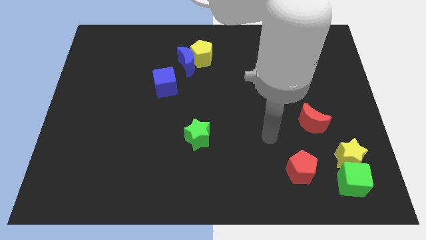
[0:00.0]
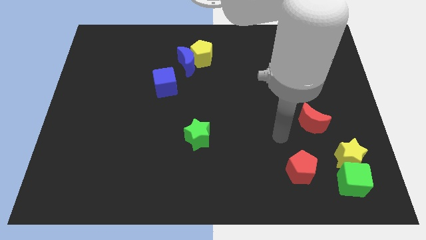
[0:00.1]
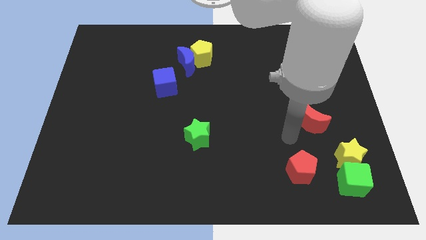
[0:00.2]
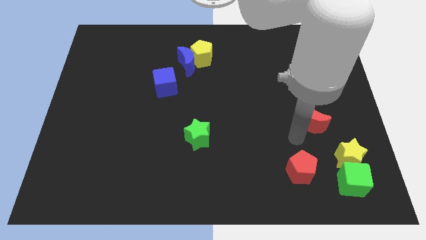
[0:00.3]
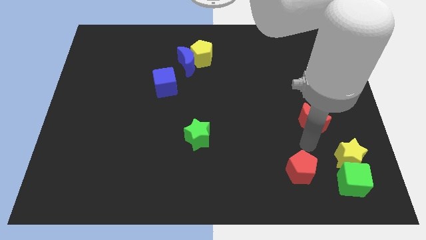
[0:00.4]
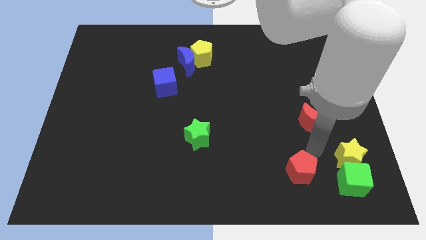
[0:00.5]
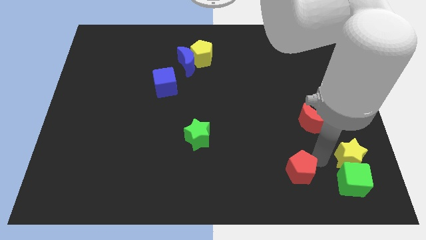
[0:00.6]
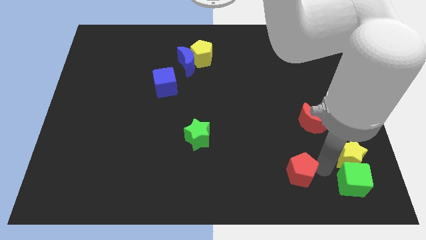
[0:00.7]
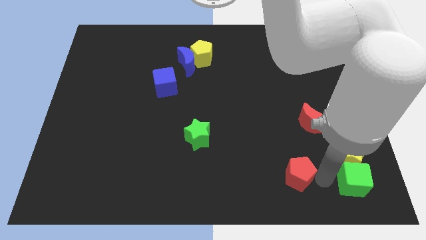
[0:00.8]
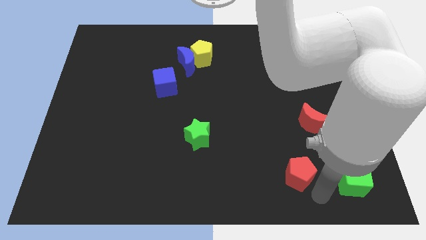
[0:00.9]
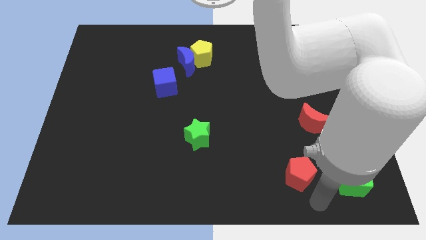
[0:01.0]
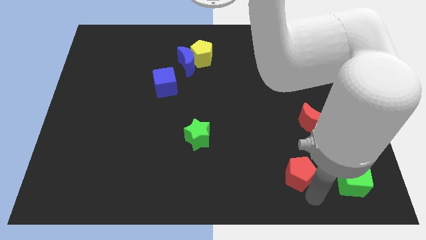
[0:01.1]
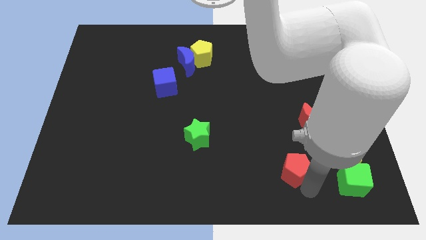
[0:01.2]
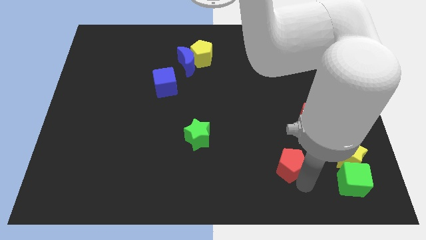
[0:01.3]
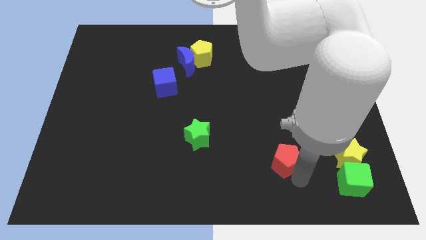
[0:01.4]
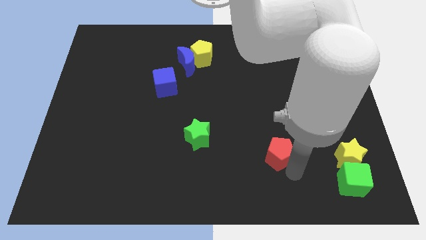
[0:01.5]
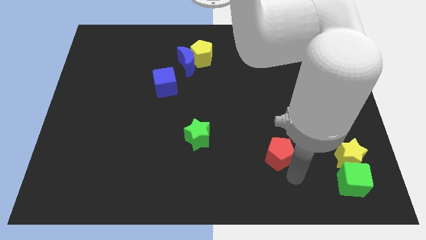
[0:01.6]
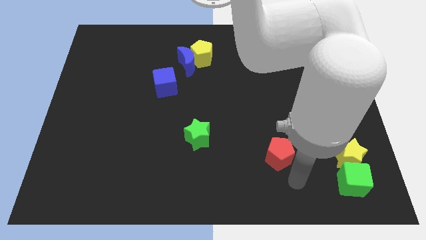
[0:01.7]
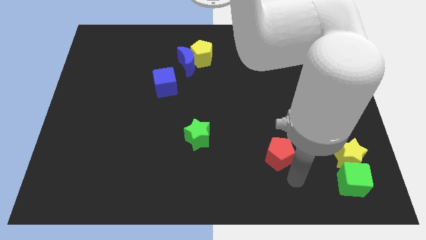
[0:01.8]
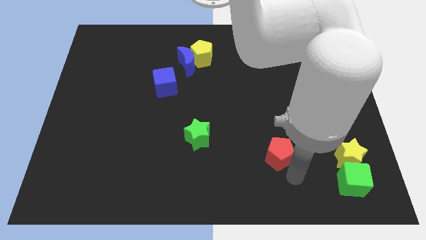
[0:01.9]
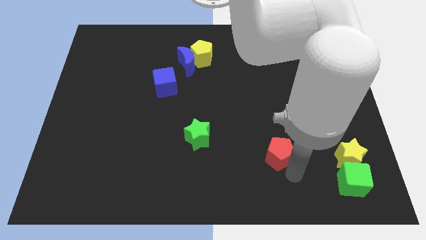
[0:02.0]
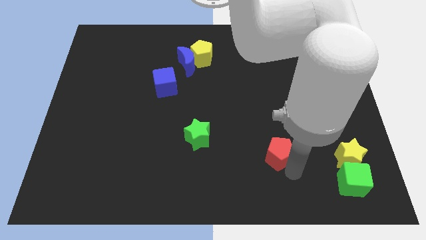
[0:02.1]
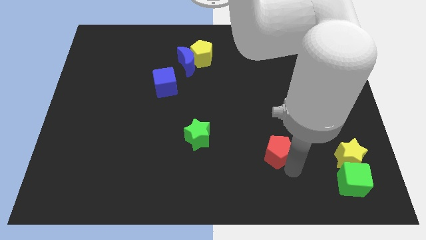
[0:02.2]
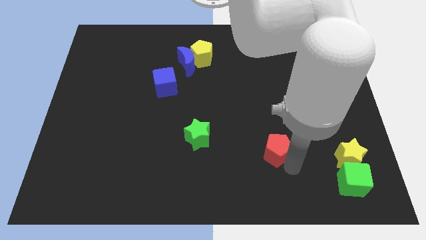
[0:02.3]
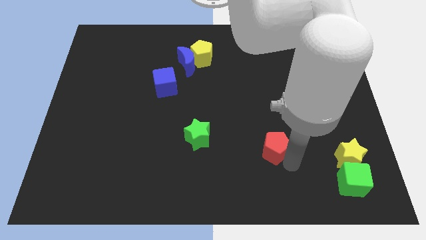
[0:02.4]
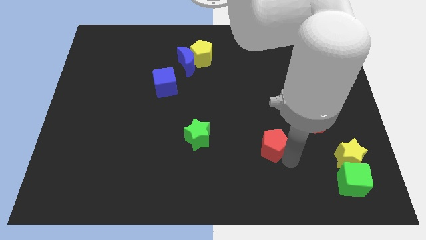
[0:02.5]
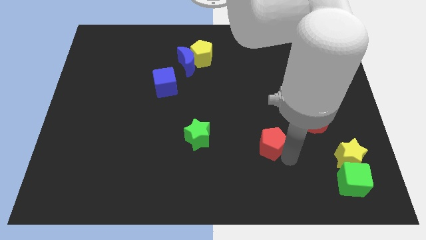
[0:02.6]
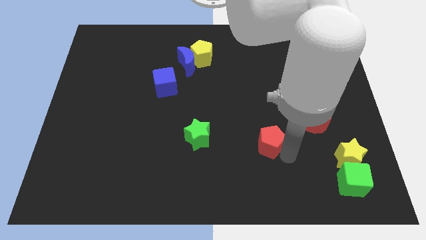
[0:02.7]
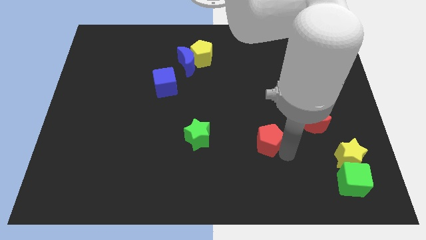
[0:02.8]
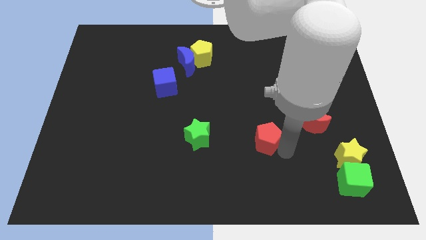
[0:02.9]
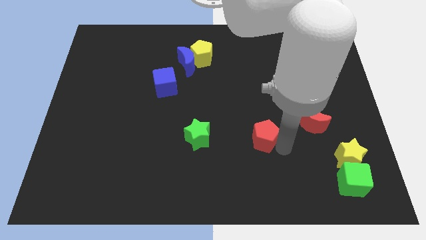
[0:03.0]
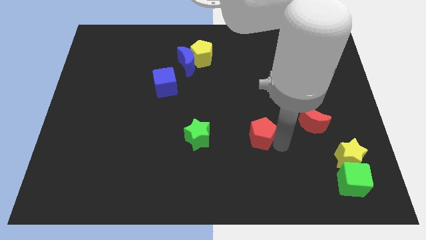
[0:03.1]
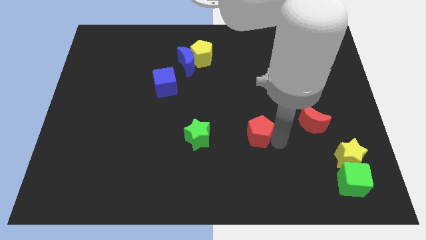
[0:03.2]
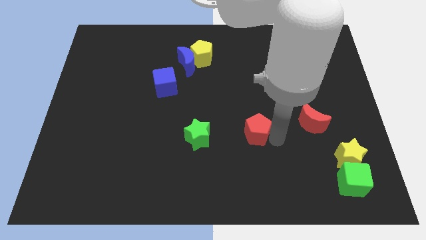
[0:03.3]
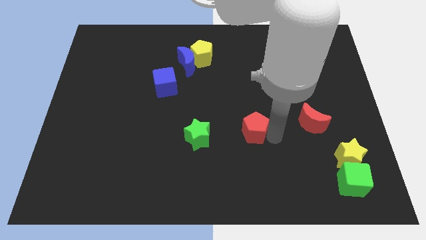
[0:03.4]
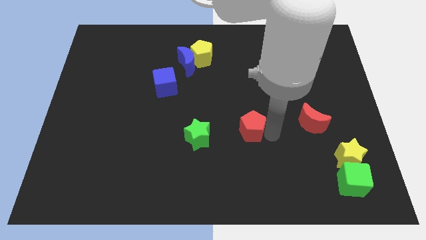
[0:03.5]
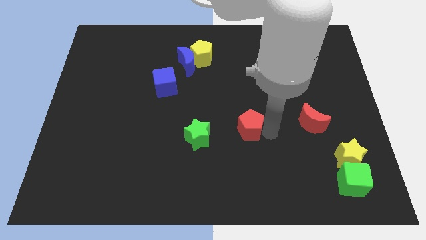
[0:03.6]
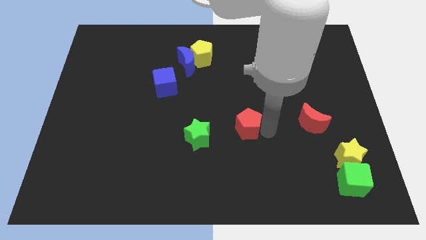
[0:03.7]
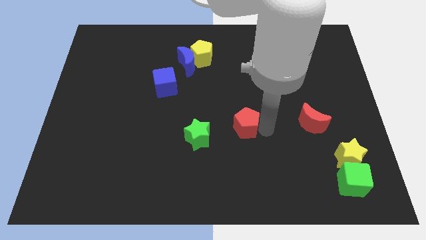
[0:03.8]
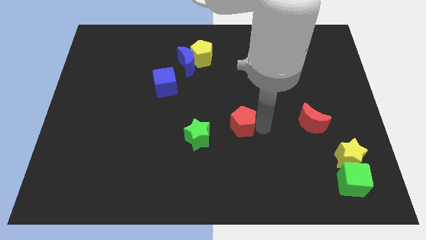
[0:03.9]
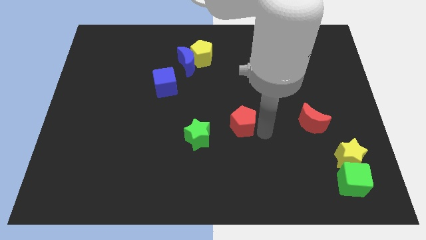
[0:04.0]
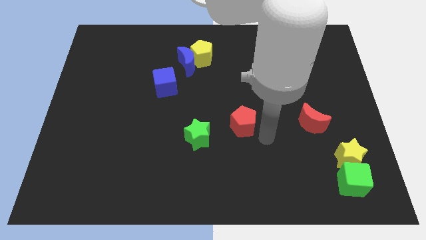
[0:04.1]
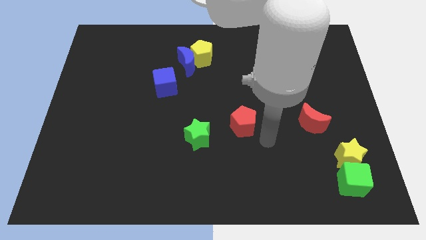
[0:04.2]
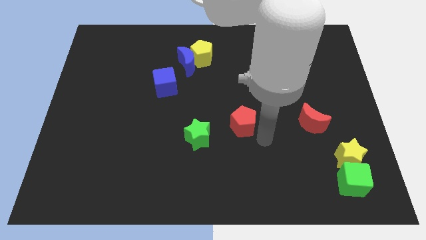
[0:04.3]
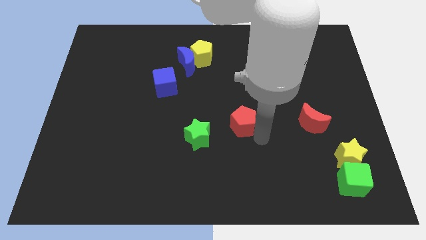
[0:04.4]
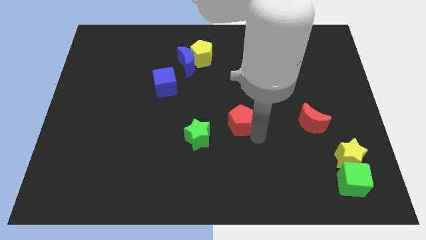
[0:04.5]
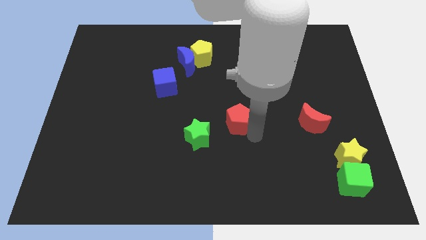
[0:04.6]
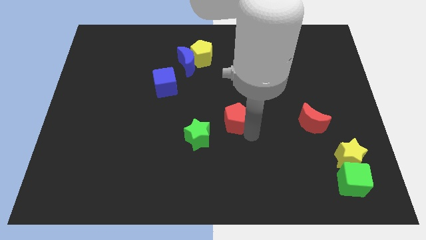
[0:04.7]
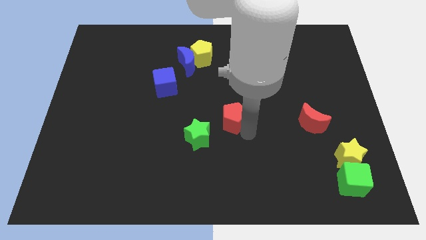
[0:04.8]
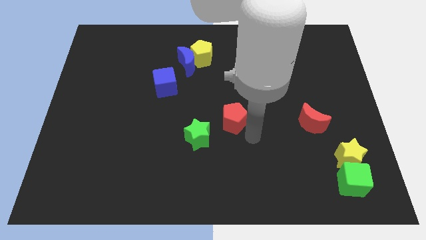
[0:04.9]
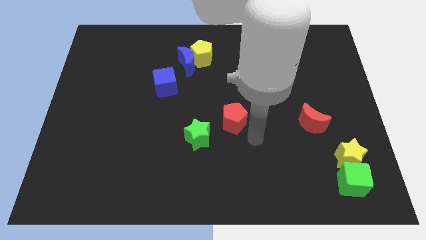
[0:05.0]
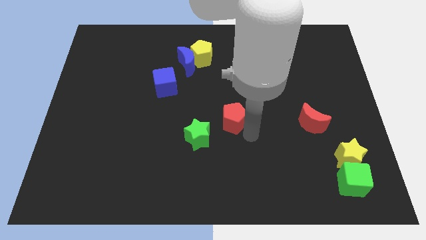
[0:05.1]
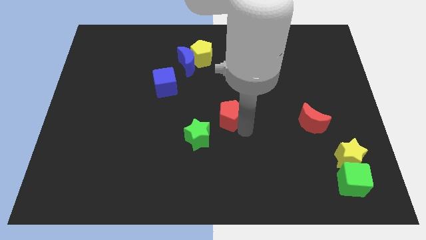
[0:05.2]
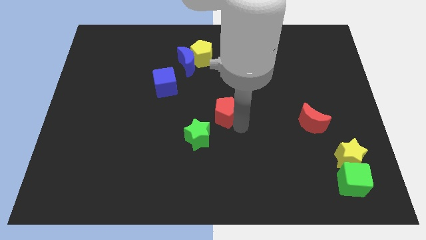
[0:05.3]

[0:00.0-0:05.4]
slide the red pentagon up and then left

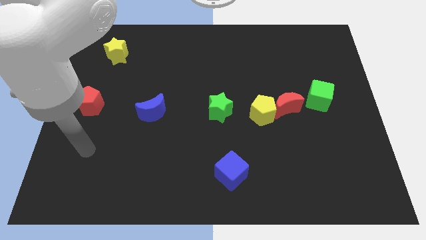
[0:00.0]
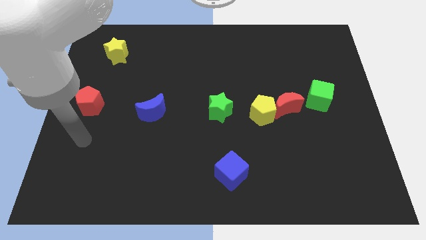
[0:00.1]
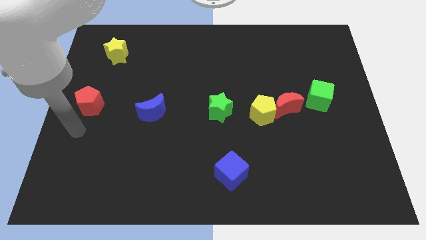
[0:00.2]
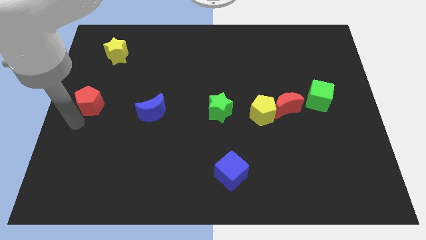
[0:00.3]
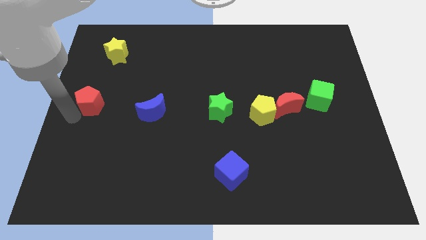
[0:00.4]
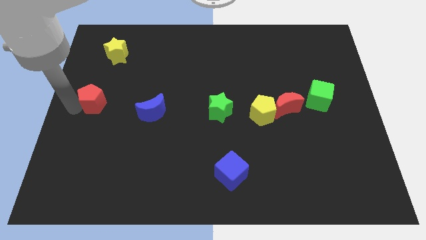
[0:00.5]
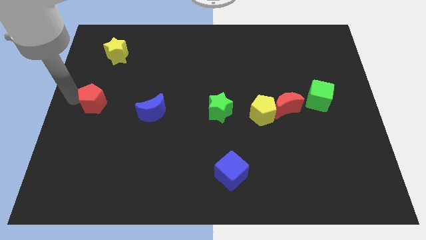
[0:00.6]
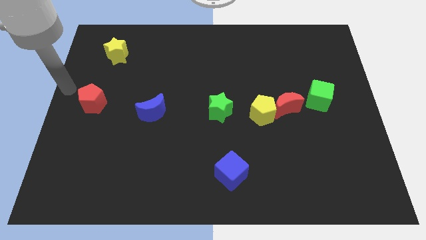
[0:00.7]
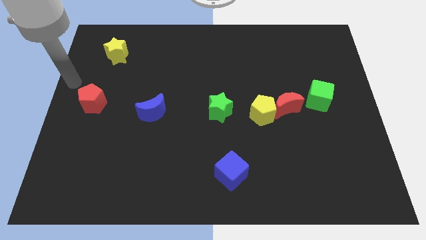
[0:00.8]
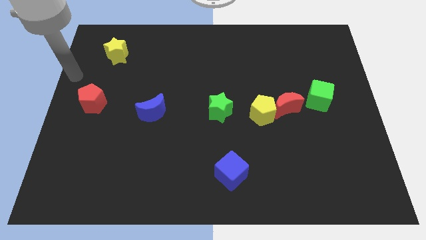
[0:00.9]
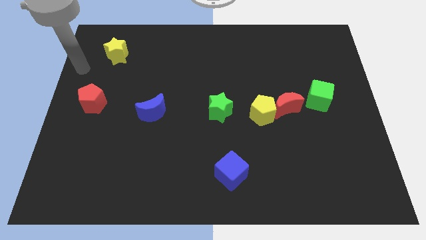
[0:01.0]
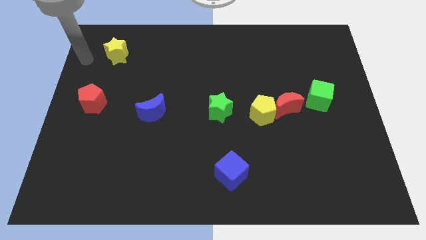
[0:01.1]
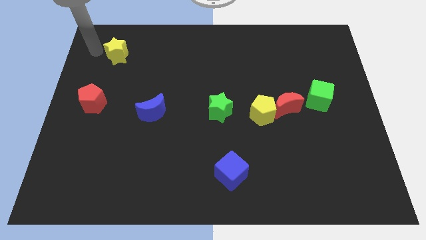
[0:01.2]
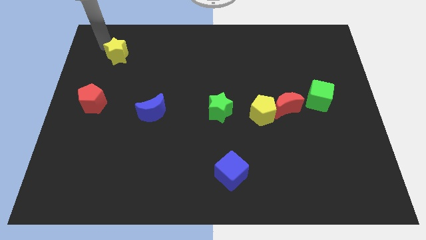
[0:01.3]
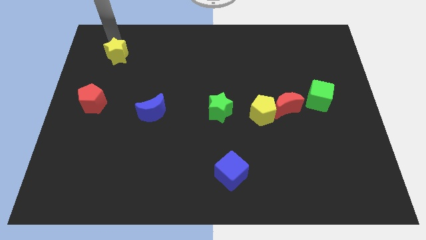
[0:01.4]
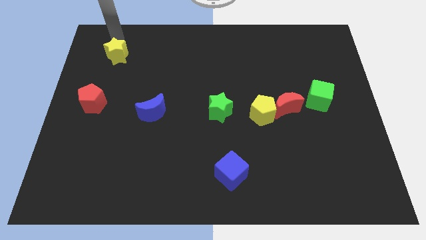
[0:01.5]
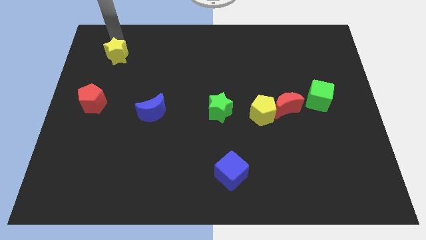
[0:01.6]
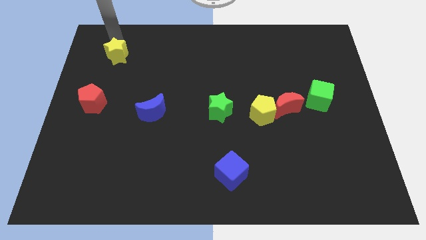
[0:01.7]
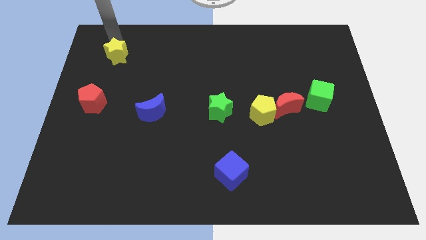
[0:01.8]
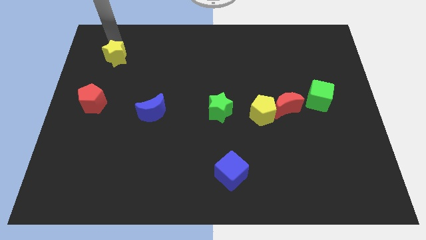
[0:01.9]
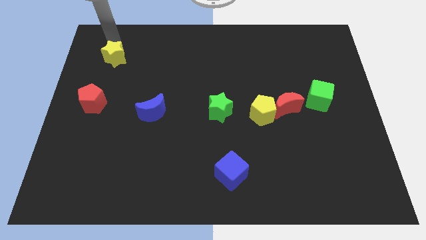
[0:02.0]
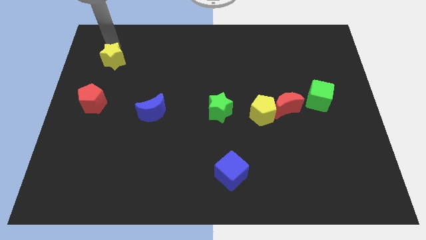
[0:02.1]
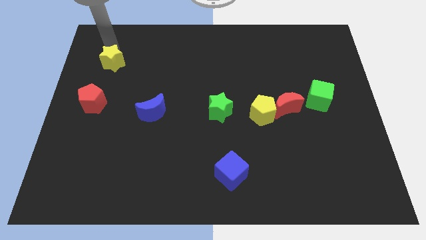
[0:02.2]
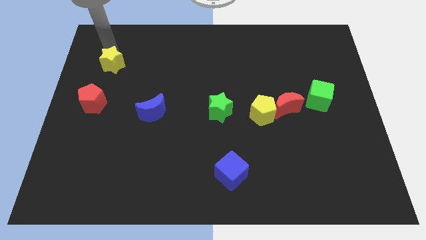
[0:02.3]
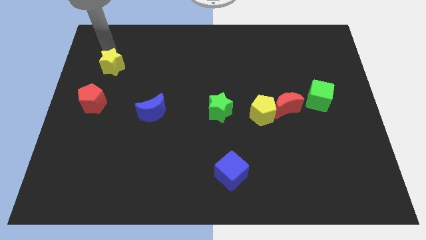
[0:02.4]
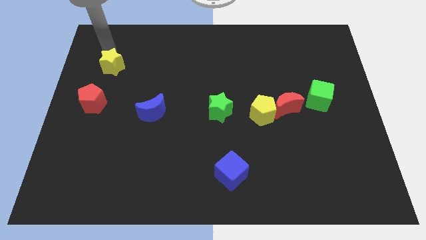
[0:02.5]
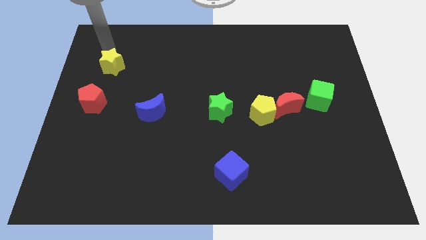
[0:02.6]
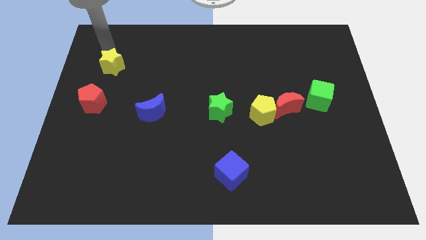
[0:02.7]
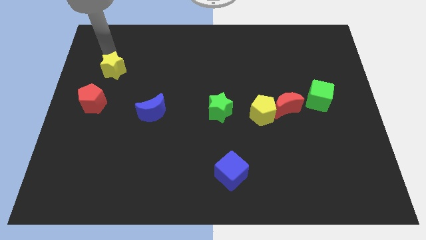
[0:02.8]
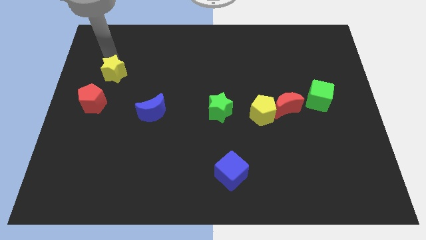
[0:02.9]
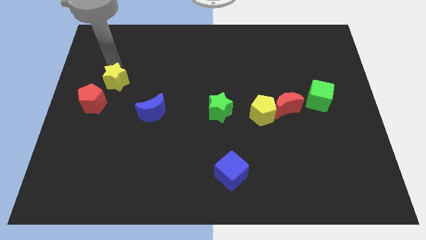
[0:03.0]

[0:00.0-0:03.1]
push the yellow star a little bit downwards
